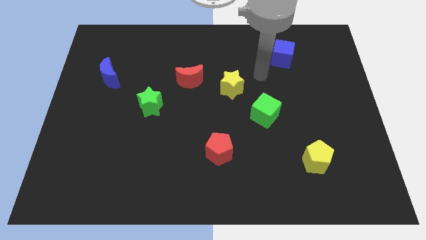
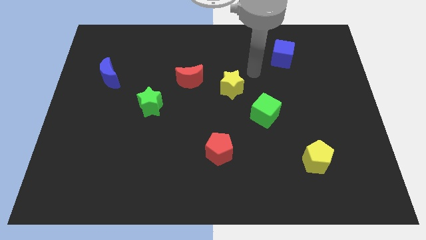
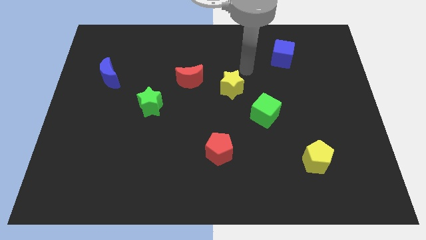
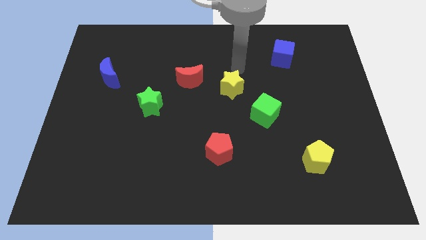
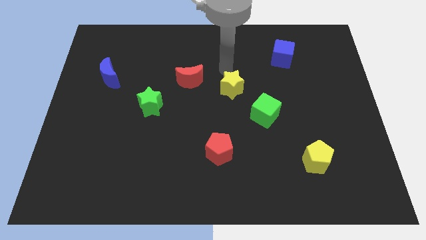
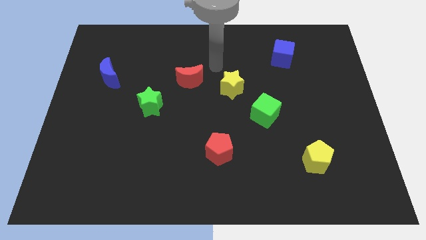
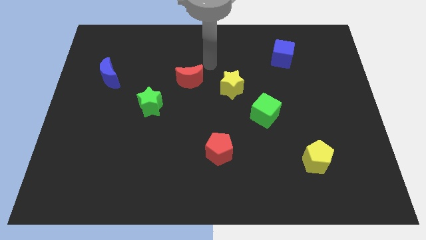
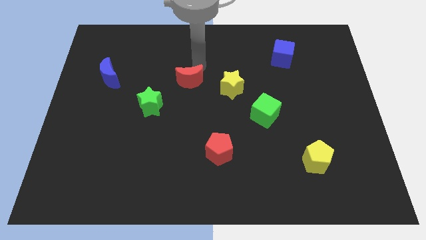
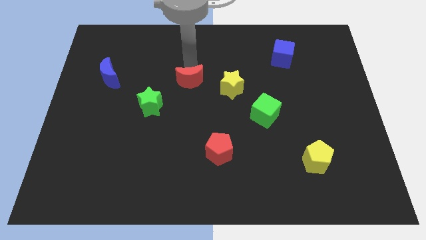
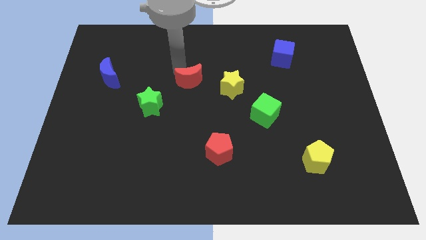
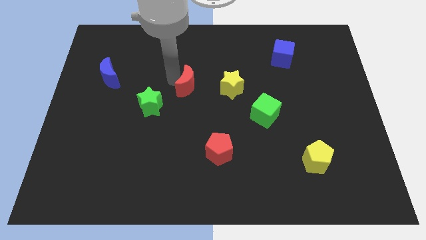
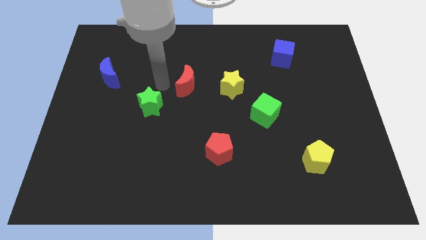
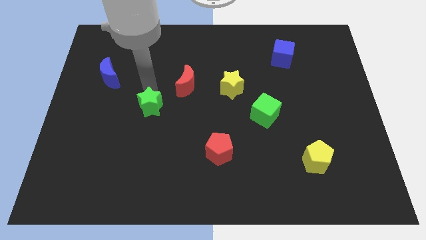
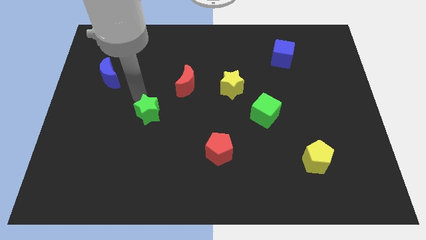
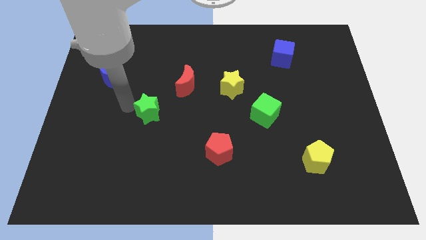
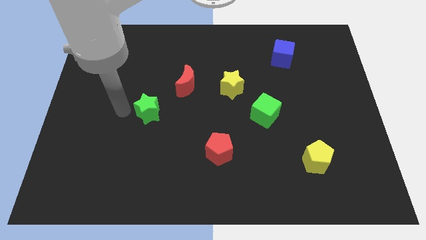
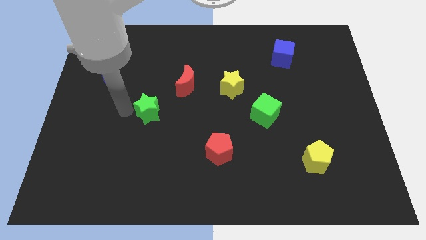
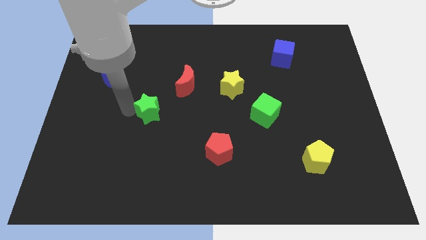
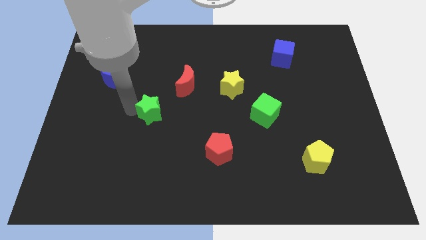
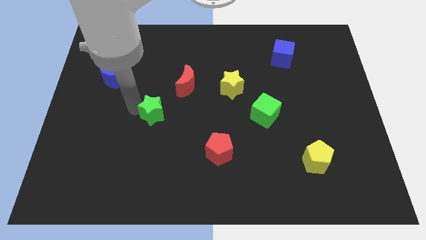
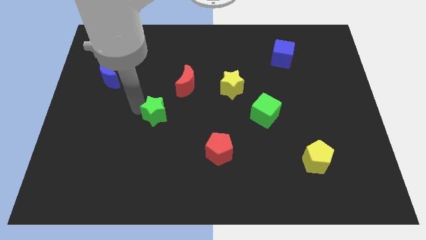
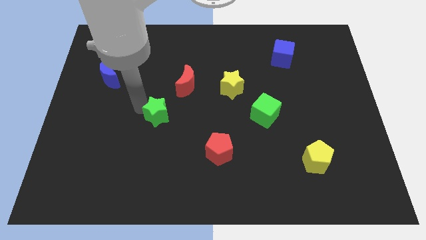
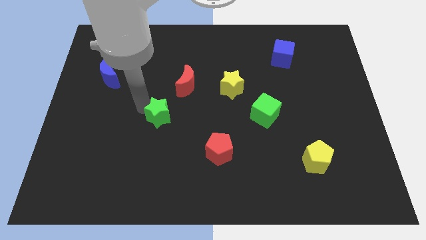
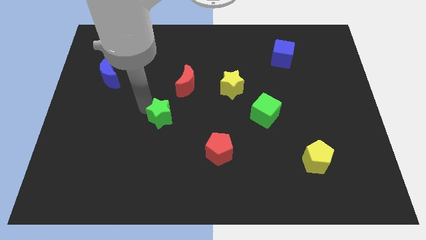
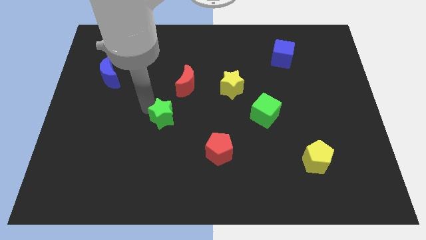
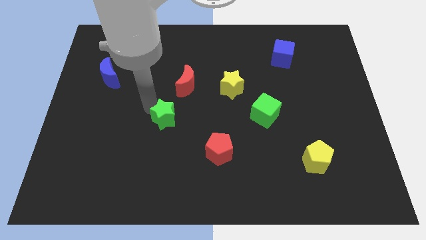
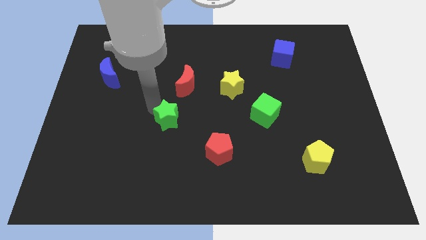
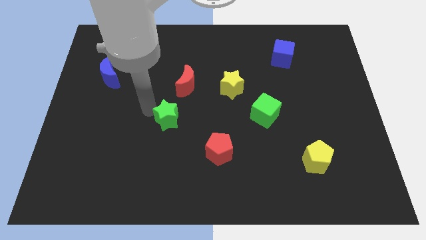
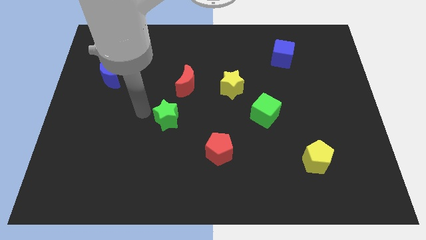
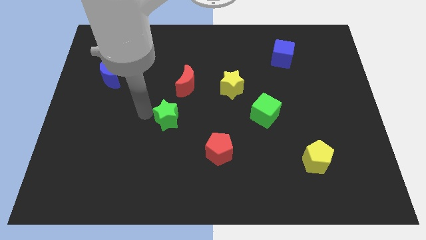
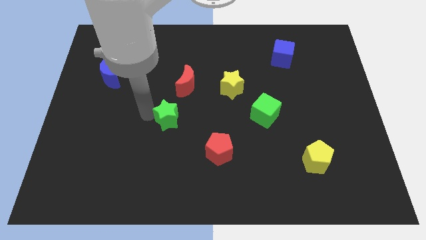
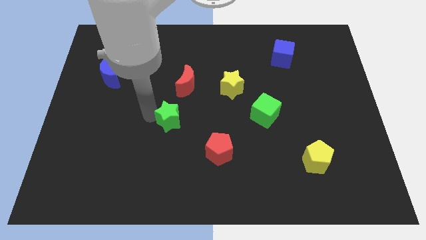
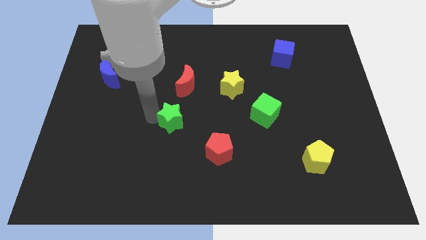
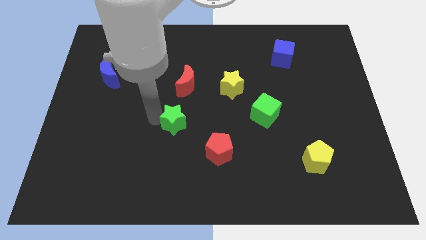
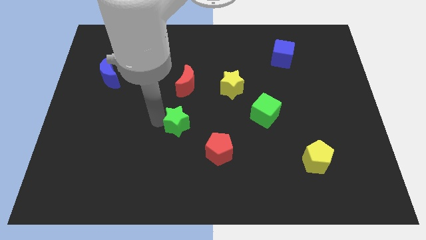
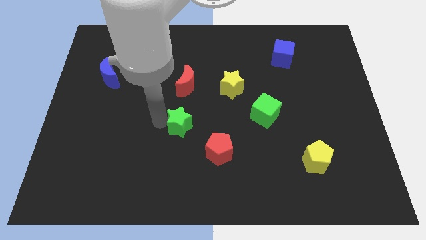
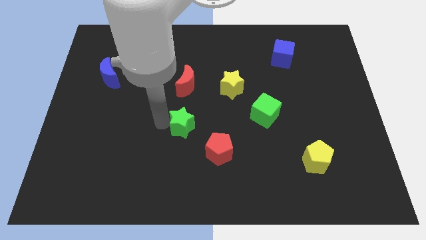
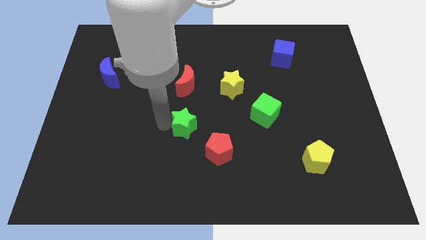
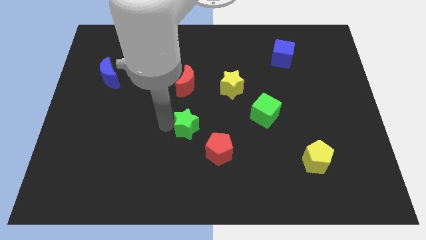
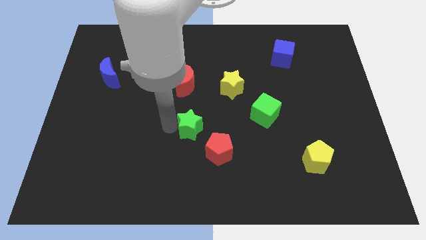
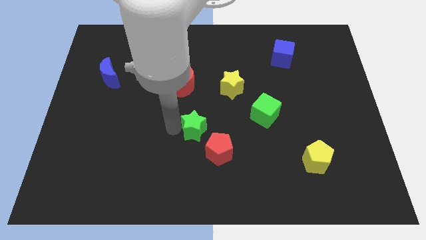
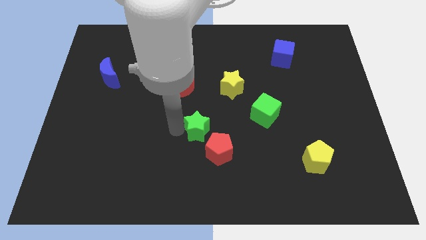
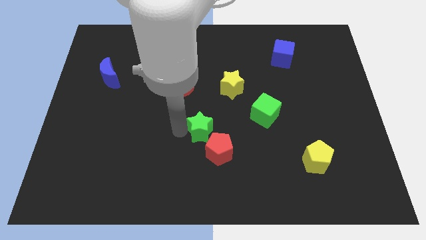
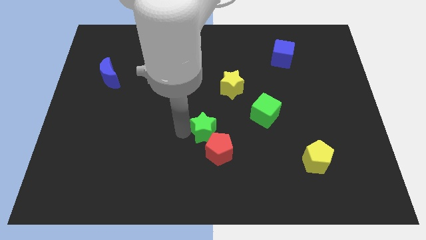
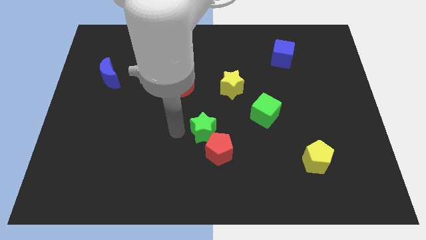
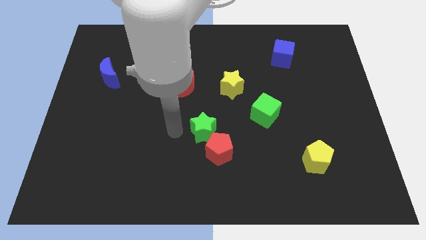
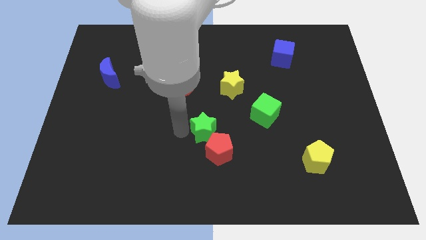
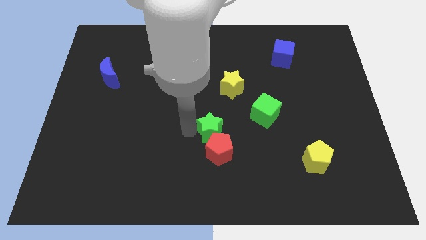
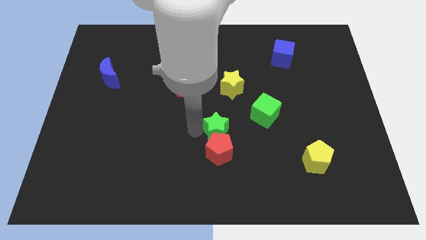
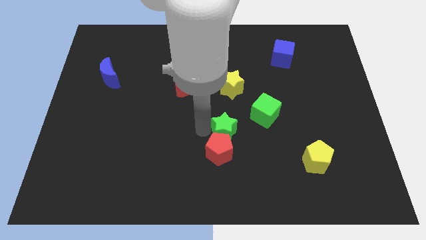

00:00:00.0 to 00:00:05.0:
push the green star diagonally down and to the left of the green cube

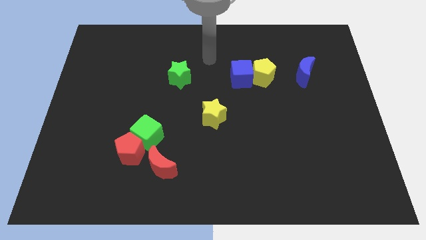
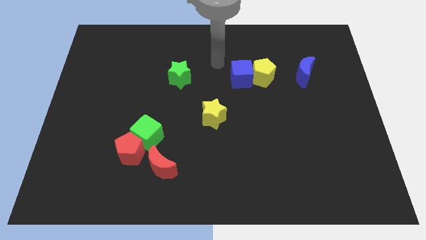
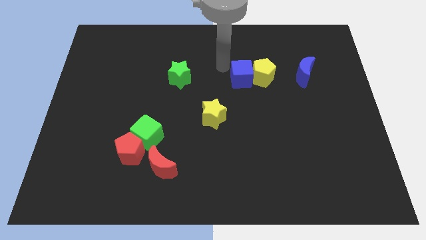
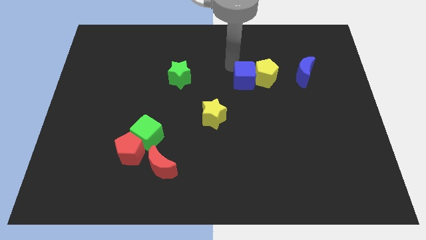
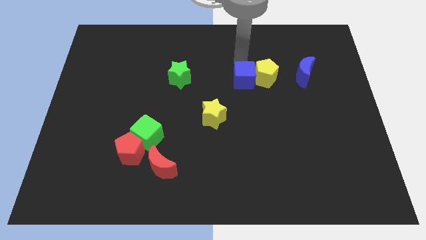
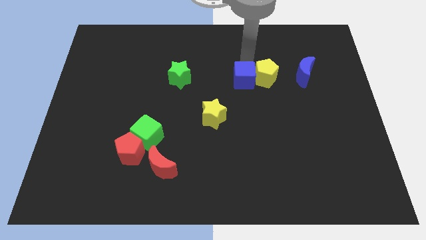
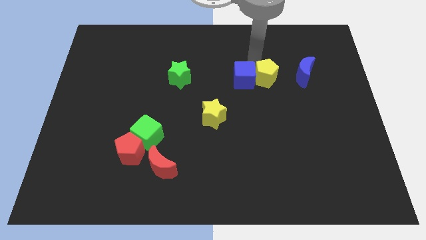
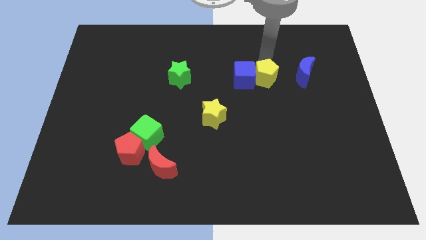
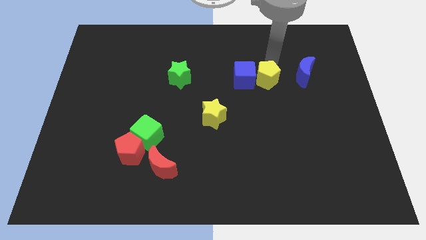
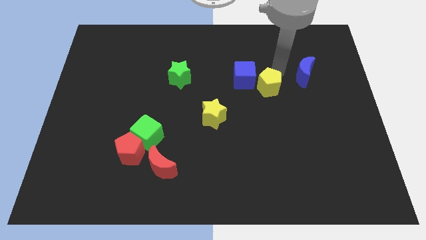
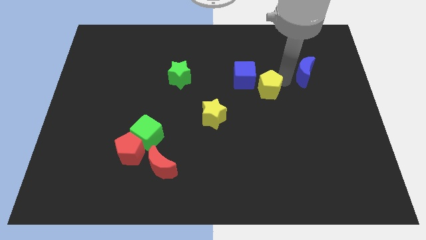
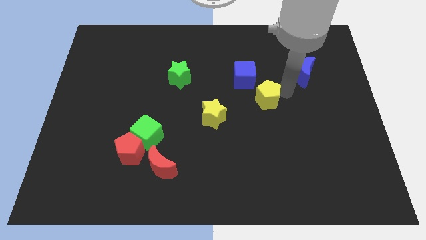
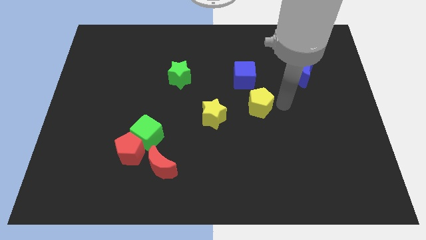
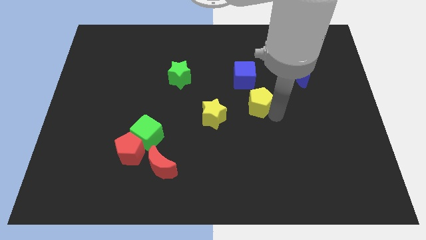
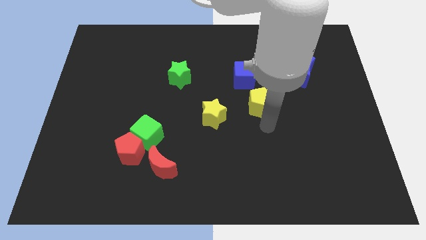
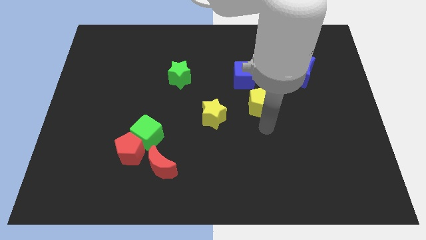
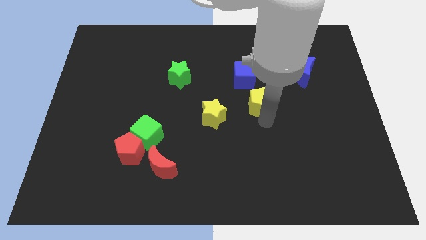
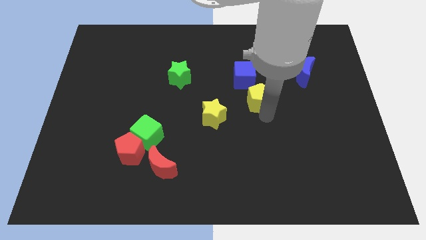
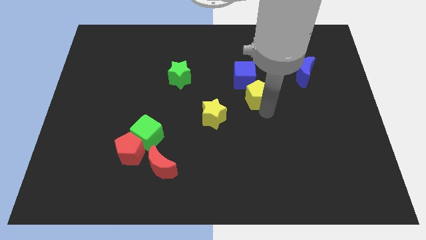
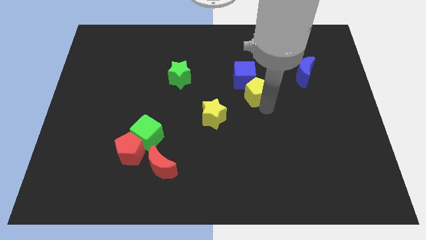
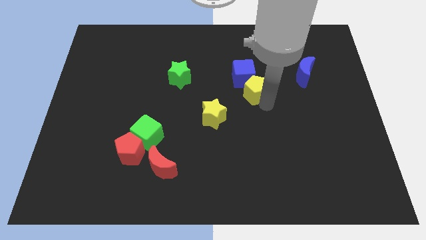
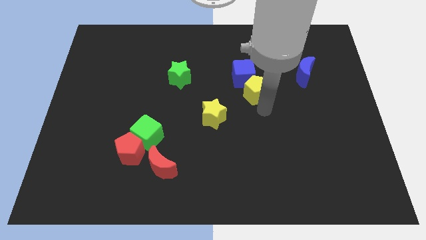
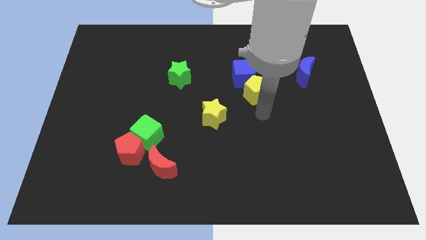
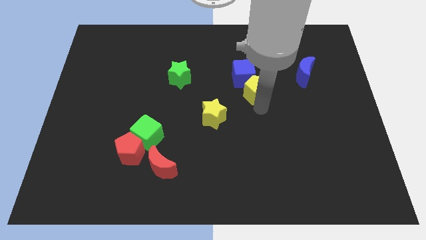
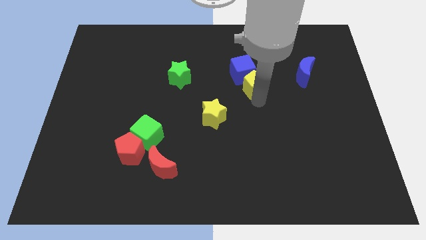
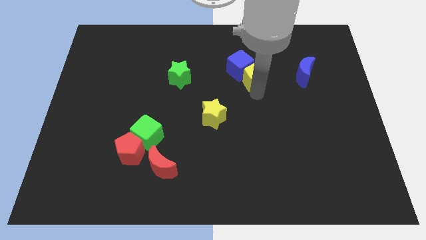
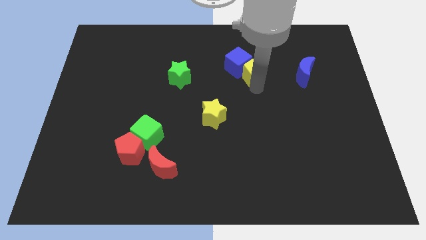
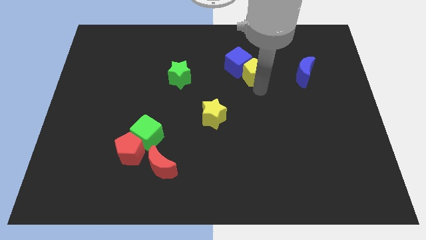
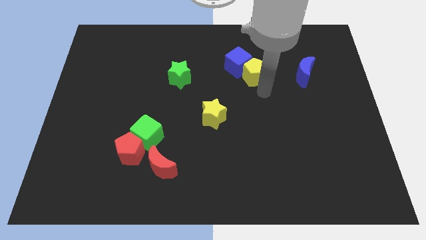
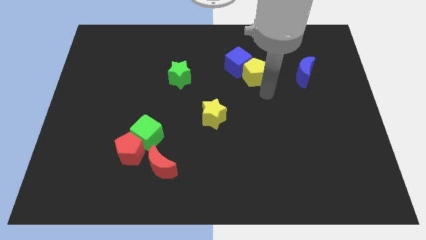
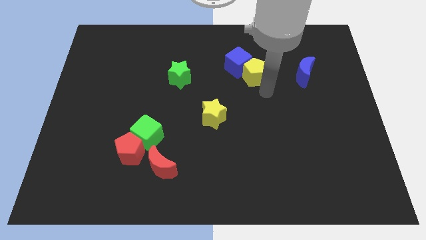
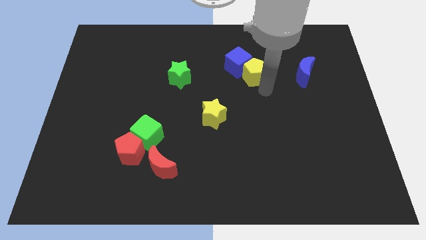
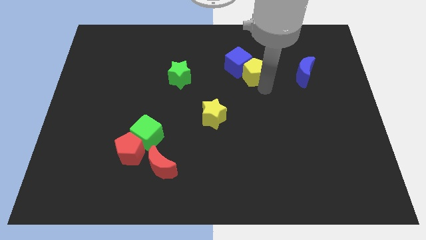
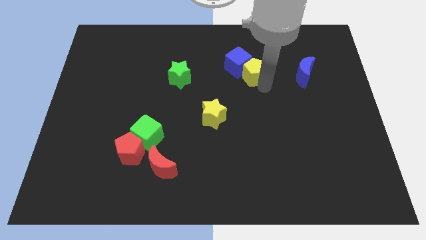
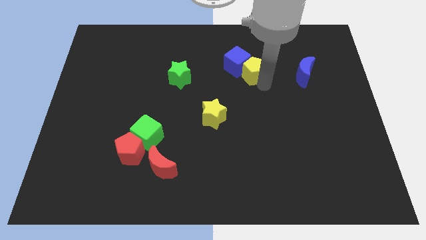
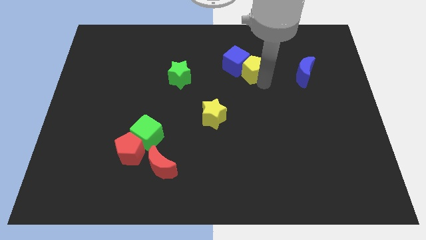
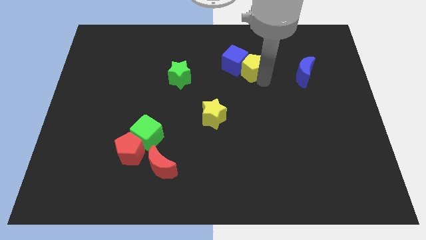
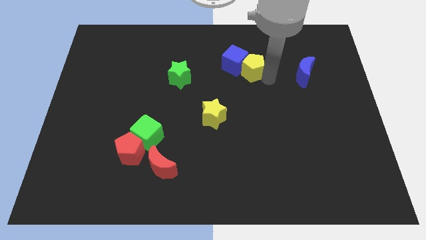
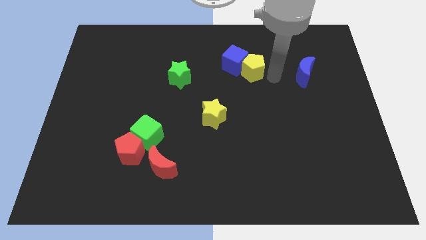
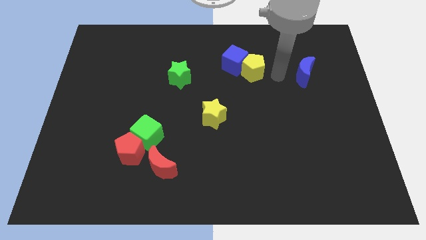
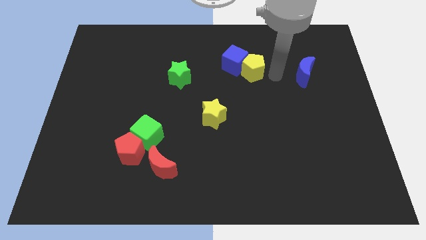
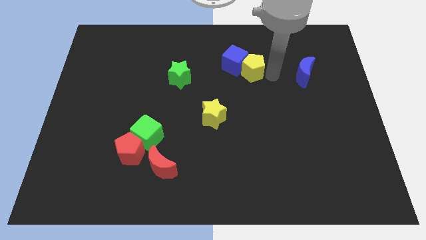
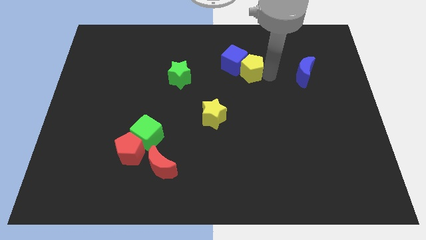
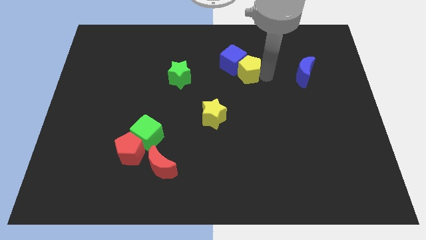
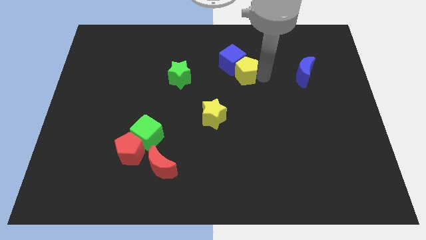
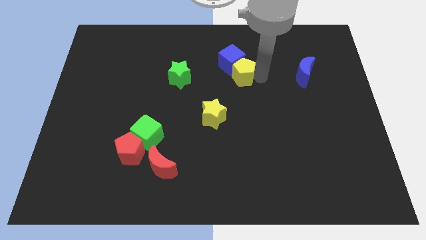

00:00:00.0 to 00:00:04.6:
slide the yellow pentagon just right of the green star
